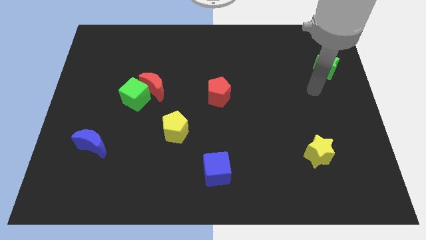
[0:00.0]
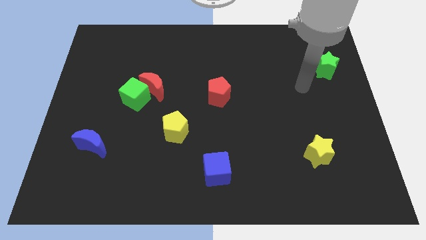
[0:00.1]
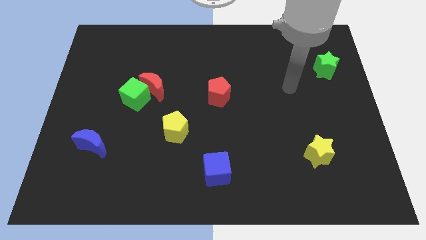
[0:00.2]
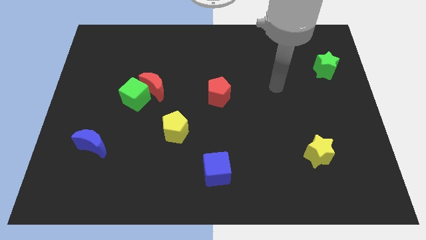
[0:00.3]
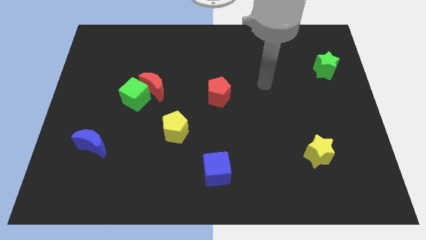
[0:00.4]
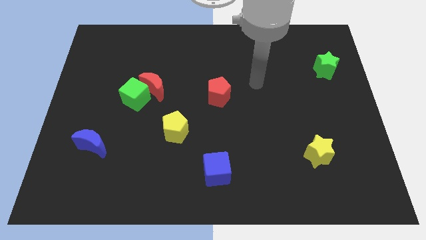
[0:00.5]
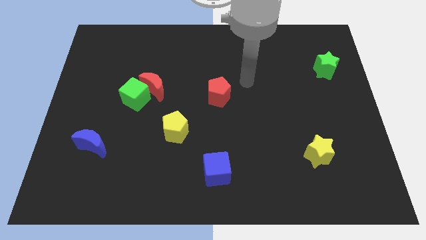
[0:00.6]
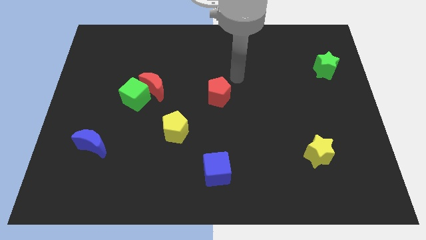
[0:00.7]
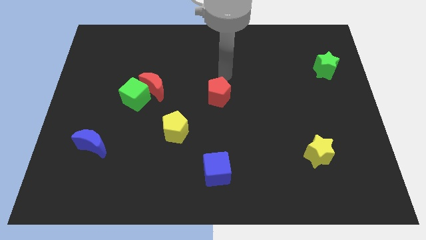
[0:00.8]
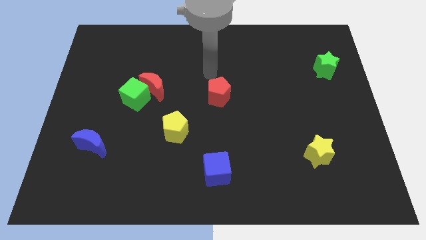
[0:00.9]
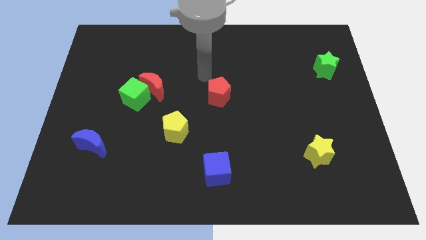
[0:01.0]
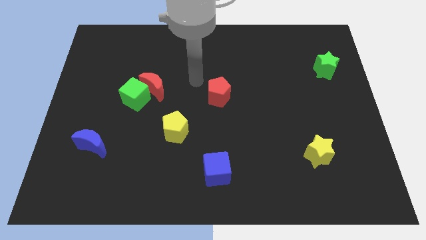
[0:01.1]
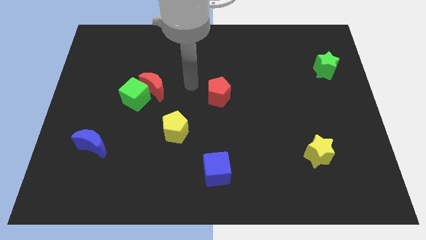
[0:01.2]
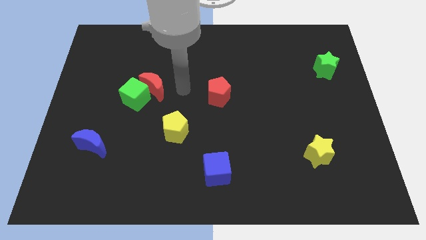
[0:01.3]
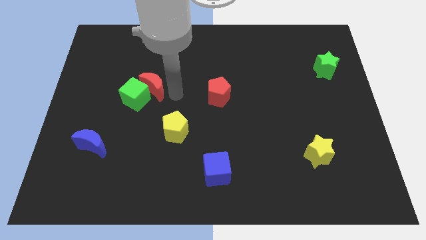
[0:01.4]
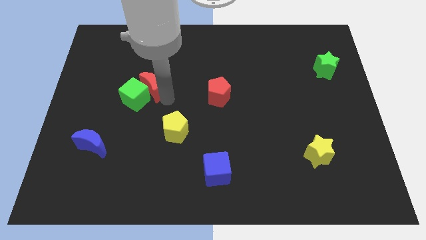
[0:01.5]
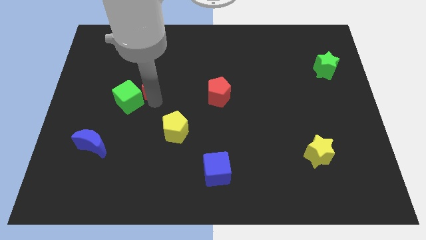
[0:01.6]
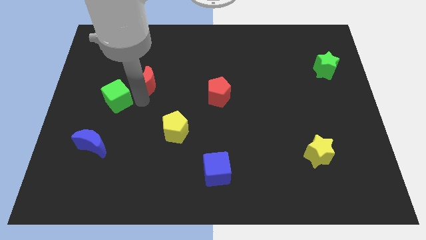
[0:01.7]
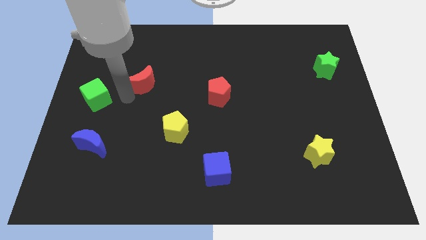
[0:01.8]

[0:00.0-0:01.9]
move the red moon away from the green cube

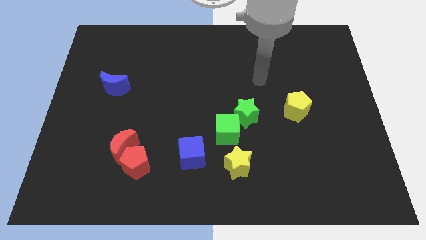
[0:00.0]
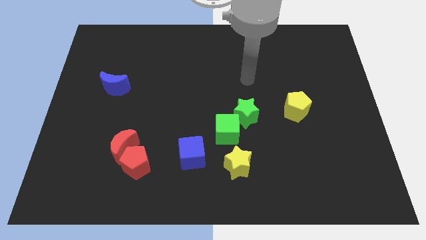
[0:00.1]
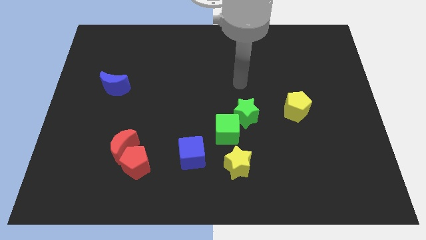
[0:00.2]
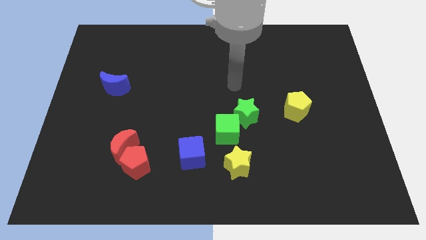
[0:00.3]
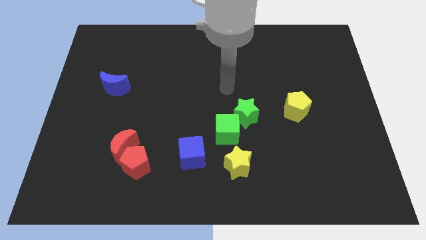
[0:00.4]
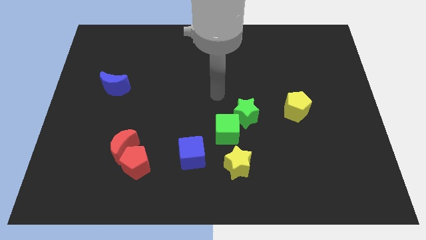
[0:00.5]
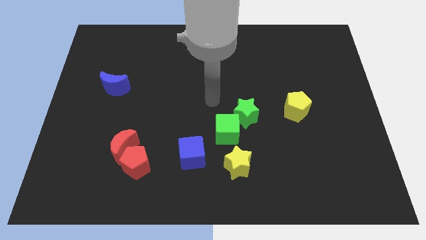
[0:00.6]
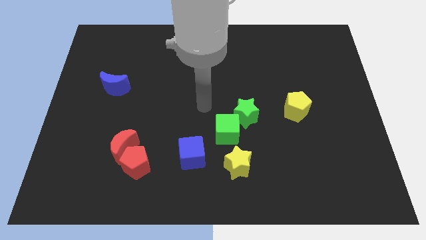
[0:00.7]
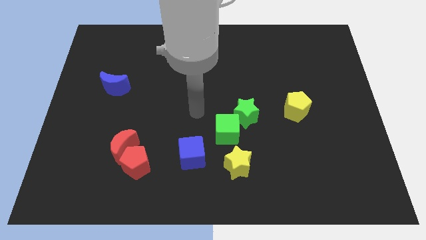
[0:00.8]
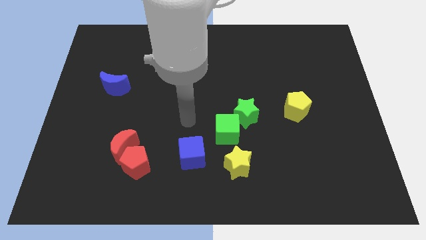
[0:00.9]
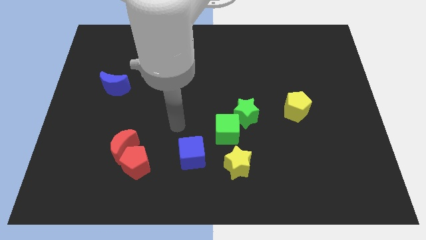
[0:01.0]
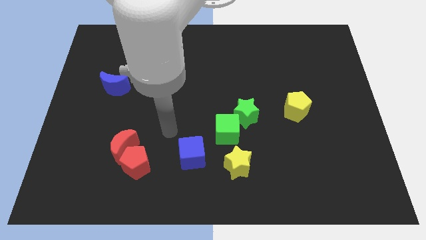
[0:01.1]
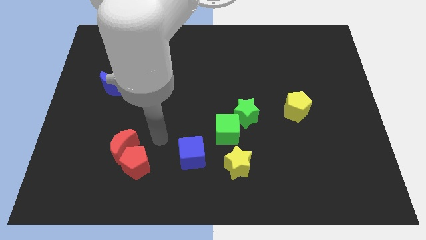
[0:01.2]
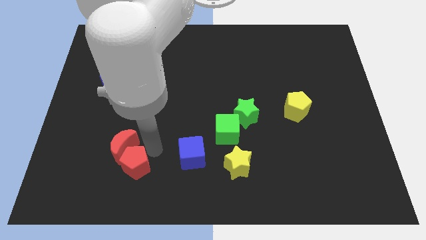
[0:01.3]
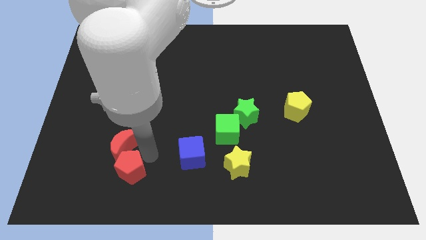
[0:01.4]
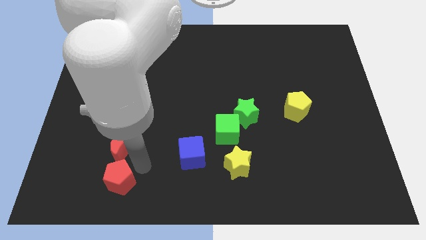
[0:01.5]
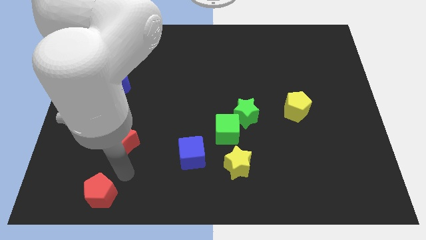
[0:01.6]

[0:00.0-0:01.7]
separate the red moon from the red pentagon

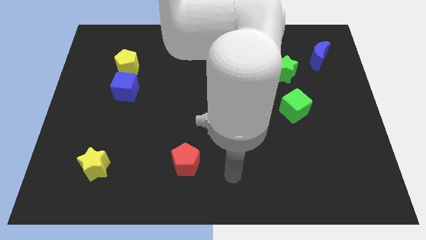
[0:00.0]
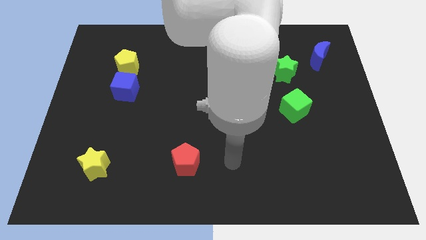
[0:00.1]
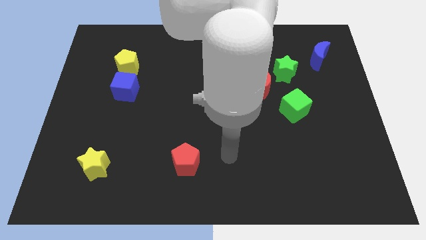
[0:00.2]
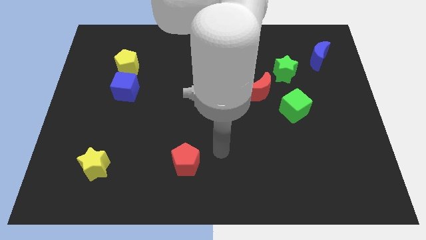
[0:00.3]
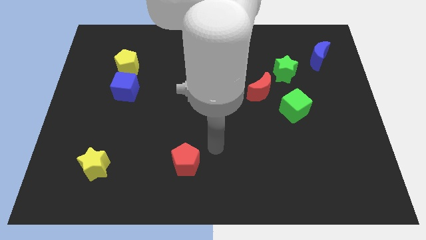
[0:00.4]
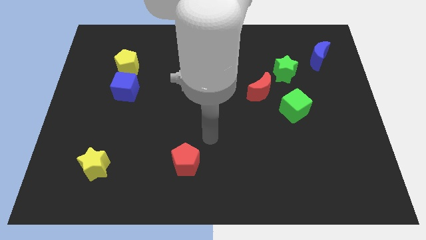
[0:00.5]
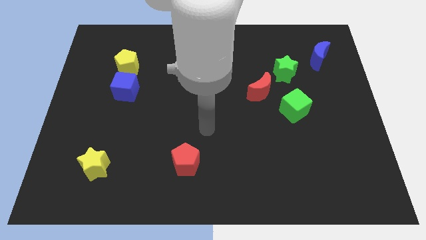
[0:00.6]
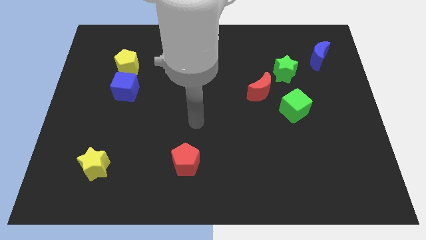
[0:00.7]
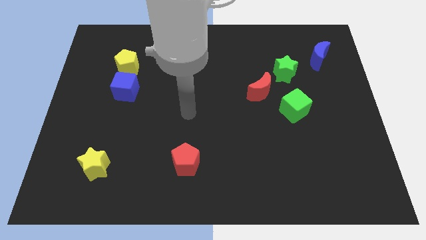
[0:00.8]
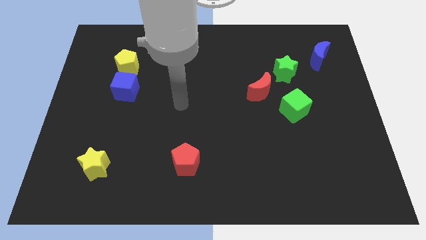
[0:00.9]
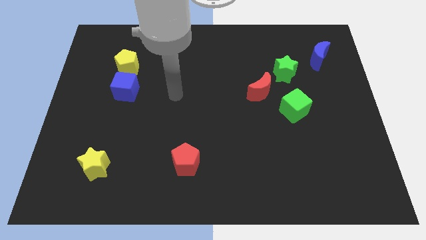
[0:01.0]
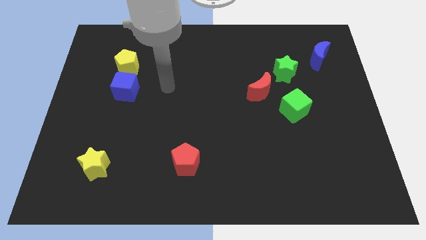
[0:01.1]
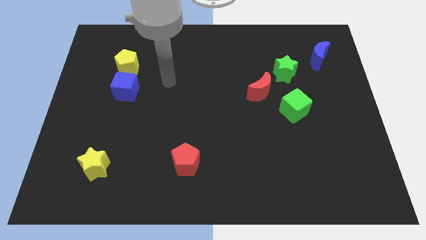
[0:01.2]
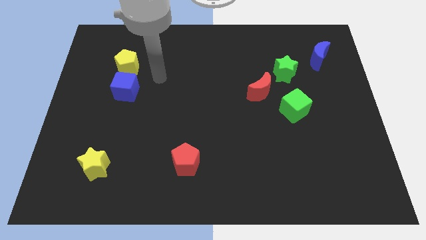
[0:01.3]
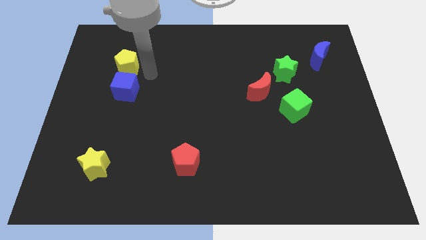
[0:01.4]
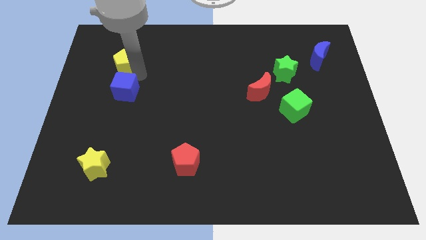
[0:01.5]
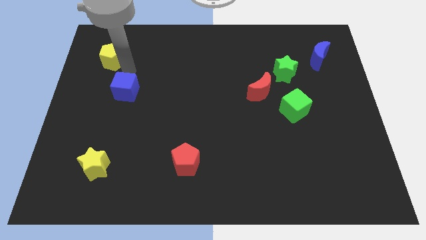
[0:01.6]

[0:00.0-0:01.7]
move the blue cube away from the yellow pentagon

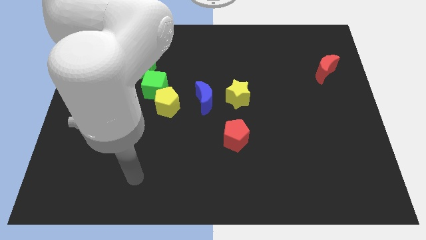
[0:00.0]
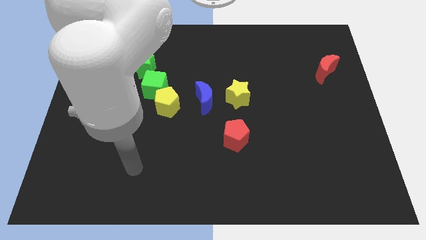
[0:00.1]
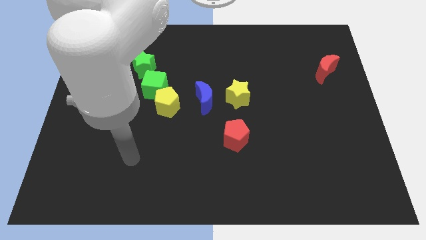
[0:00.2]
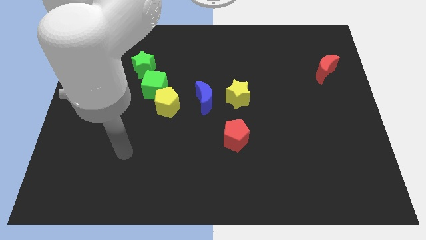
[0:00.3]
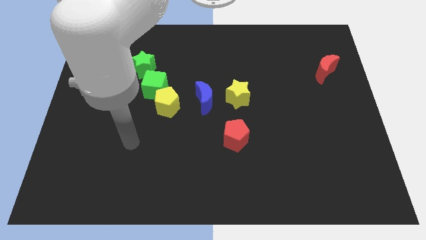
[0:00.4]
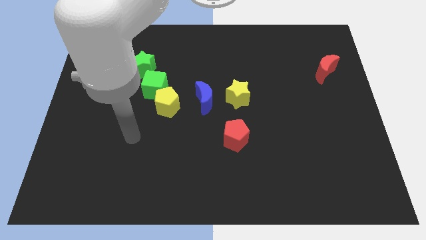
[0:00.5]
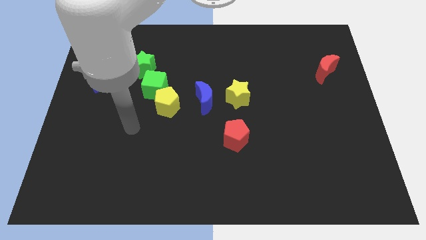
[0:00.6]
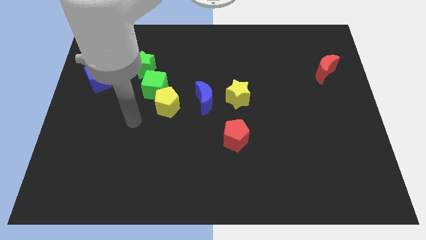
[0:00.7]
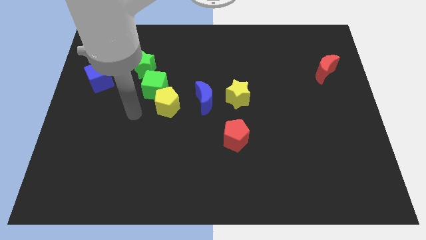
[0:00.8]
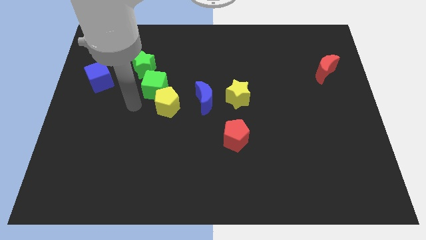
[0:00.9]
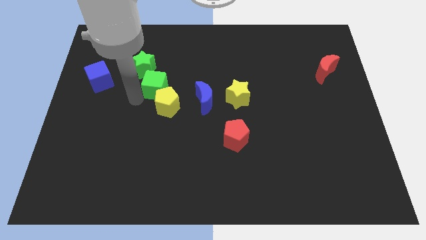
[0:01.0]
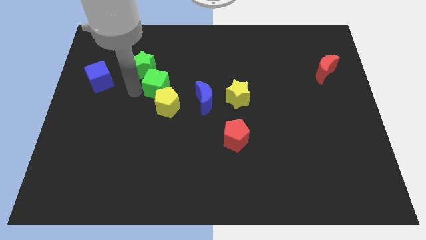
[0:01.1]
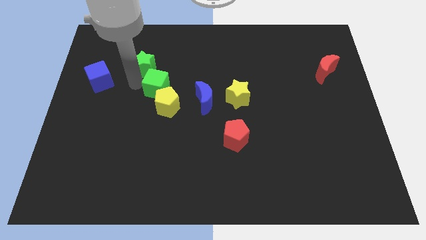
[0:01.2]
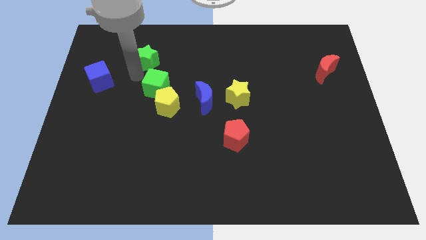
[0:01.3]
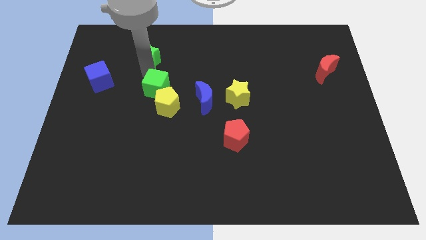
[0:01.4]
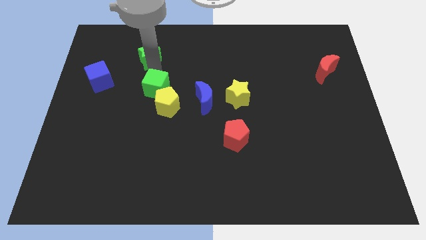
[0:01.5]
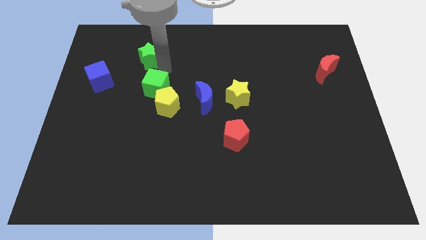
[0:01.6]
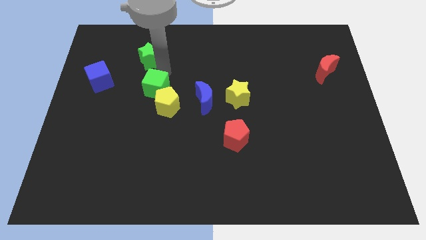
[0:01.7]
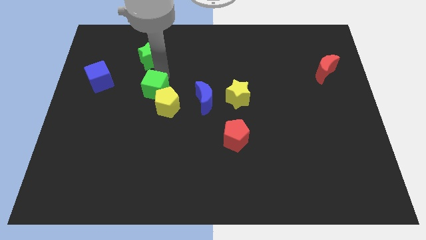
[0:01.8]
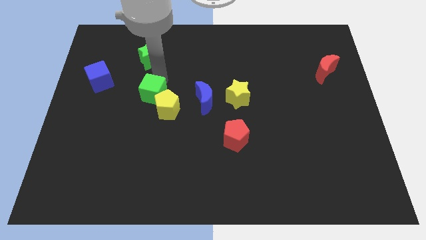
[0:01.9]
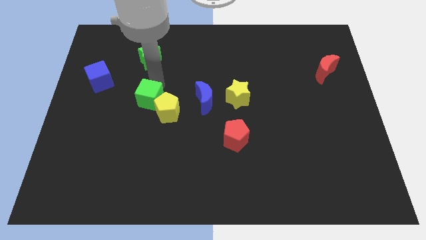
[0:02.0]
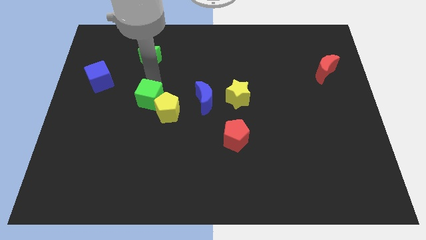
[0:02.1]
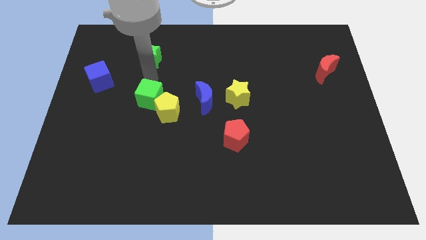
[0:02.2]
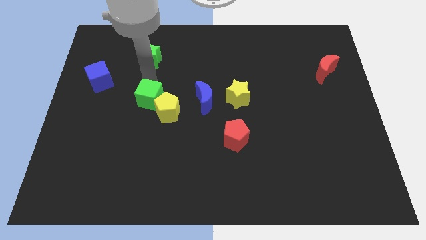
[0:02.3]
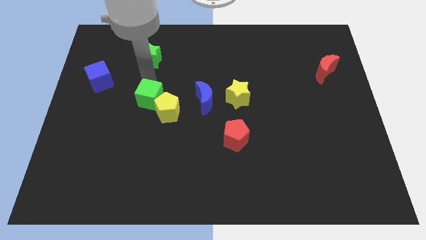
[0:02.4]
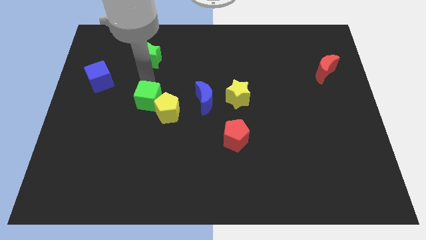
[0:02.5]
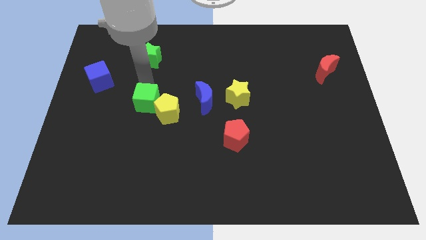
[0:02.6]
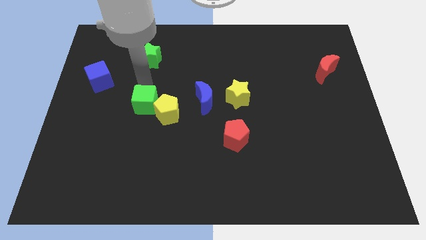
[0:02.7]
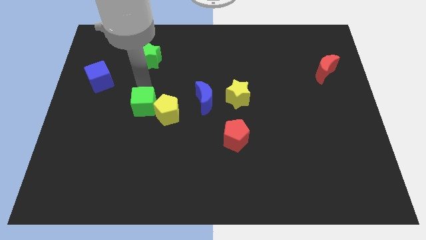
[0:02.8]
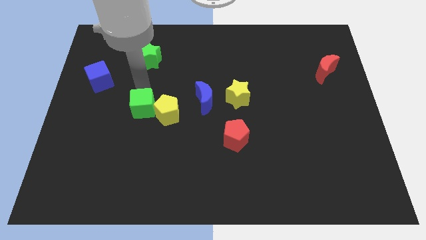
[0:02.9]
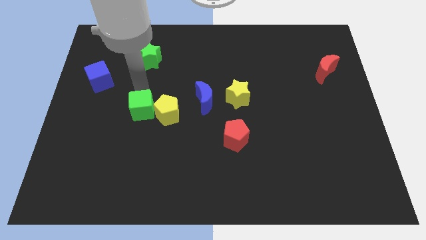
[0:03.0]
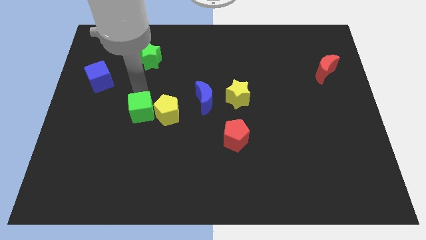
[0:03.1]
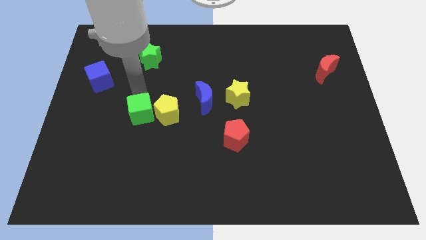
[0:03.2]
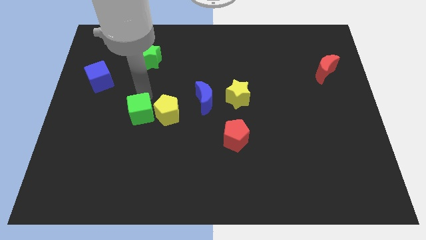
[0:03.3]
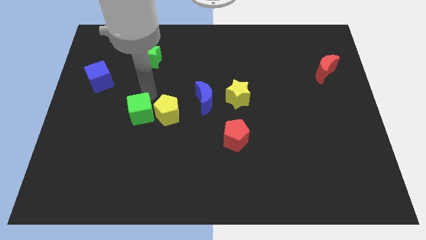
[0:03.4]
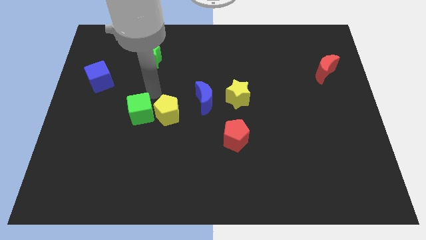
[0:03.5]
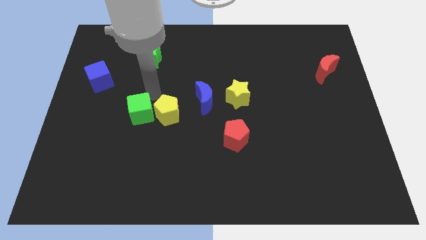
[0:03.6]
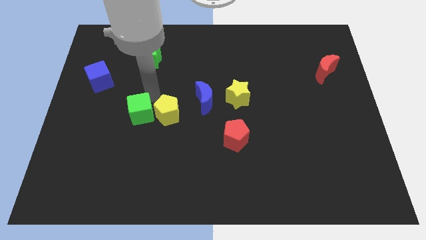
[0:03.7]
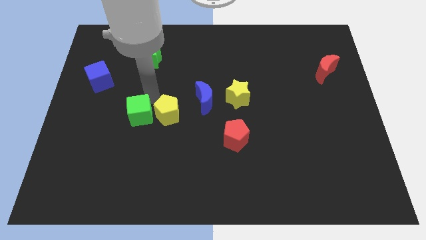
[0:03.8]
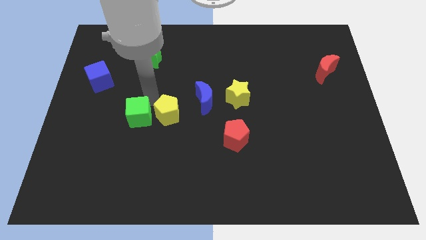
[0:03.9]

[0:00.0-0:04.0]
pull the green cube apart from the yellow pentagon and green star

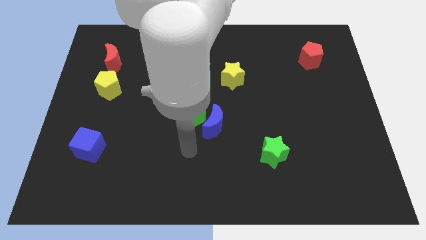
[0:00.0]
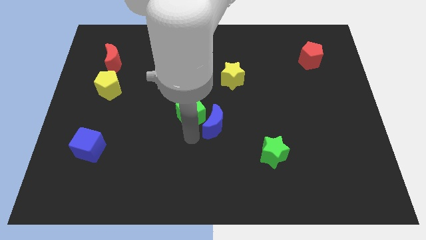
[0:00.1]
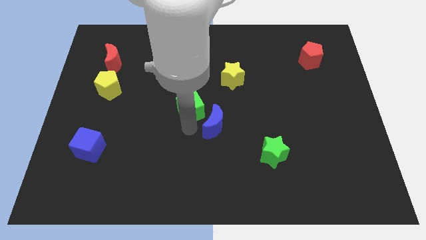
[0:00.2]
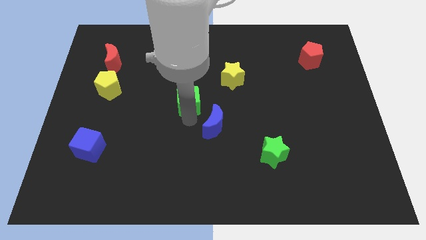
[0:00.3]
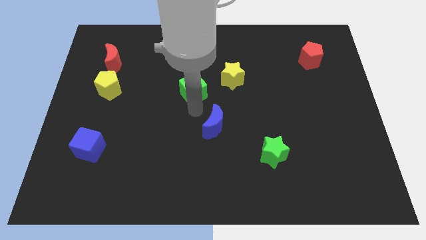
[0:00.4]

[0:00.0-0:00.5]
move the blue moon away from the green cube
